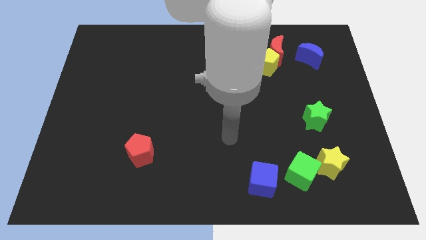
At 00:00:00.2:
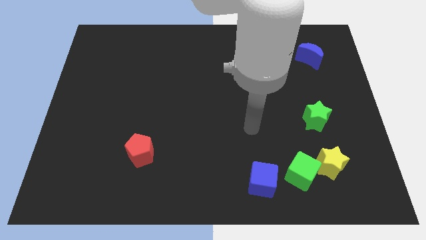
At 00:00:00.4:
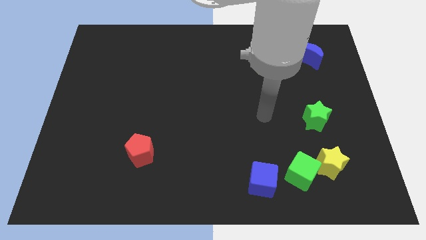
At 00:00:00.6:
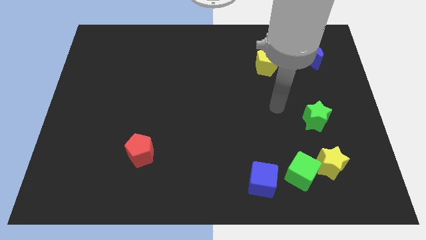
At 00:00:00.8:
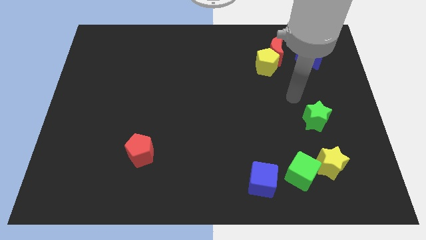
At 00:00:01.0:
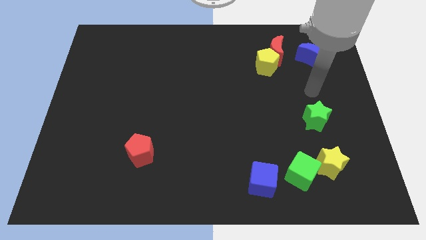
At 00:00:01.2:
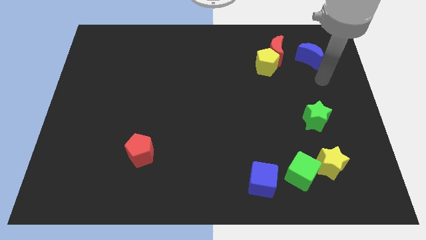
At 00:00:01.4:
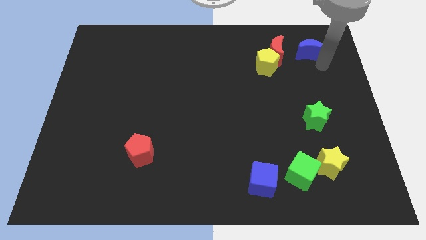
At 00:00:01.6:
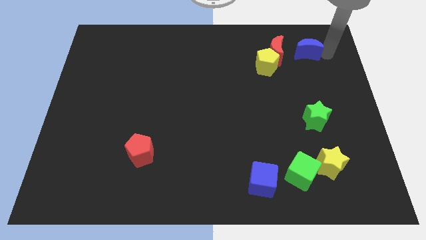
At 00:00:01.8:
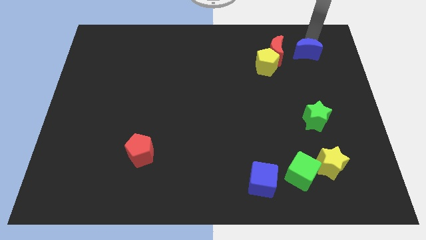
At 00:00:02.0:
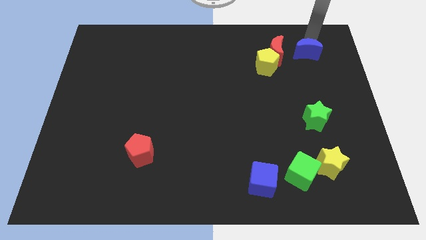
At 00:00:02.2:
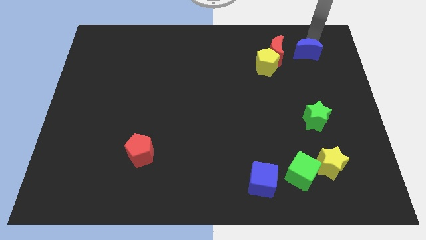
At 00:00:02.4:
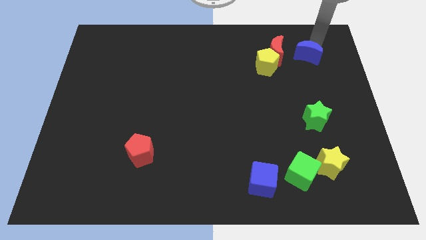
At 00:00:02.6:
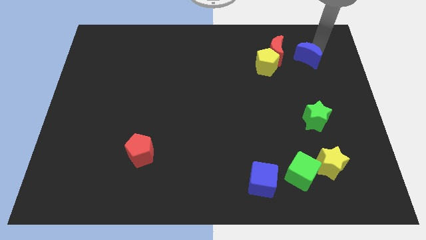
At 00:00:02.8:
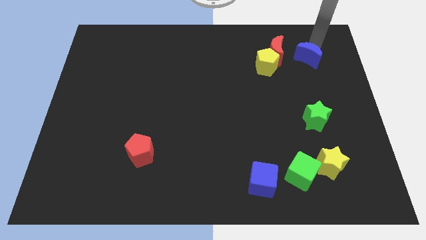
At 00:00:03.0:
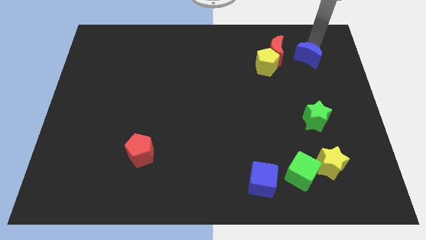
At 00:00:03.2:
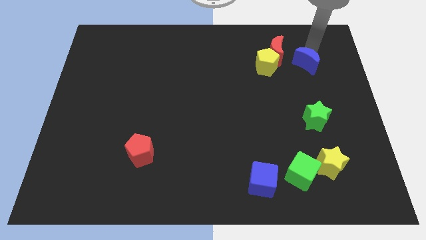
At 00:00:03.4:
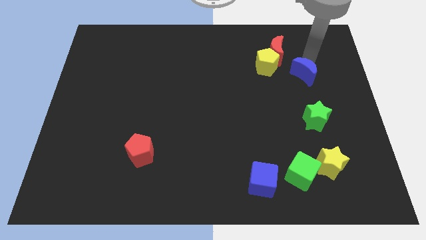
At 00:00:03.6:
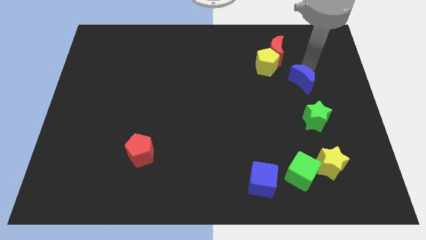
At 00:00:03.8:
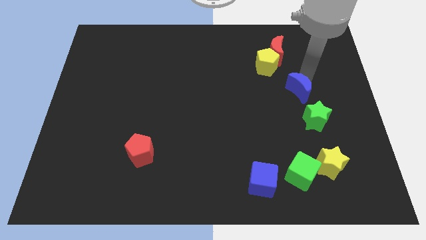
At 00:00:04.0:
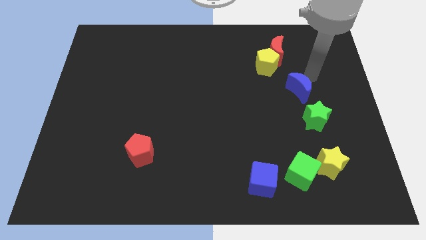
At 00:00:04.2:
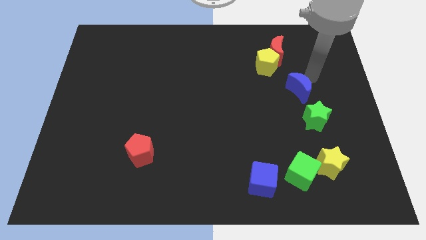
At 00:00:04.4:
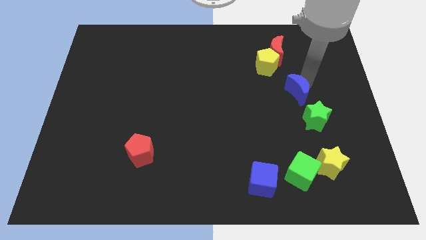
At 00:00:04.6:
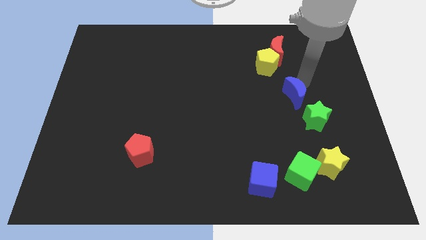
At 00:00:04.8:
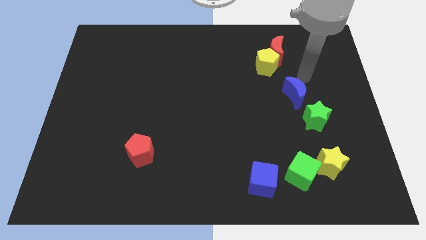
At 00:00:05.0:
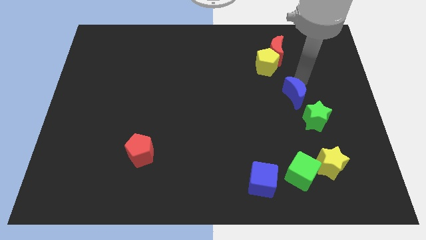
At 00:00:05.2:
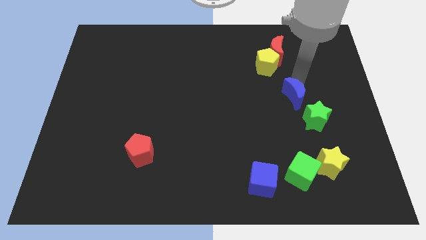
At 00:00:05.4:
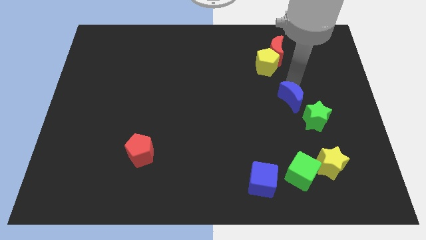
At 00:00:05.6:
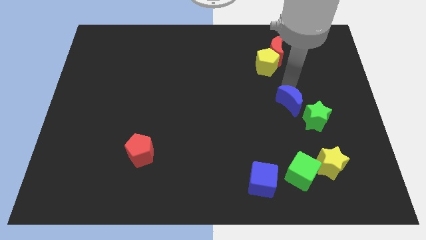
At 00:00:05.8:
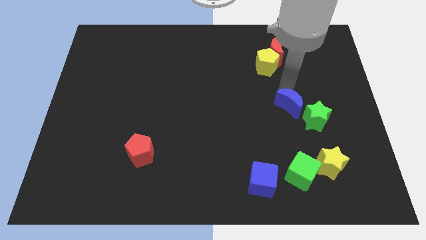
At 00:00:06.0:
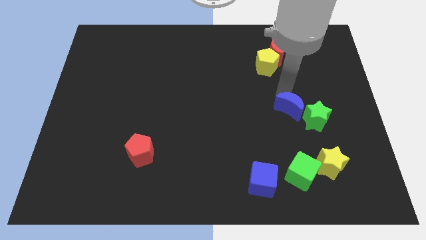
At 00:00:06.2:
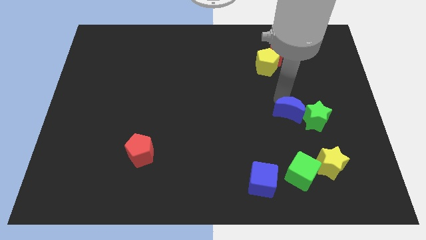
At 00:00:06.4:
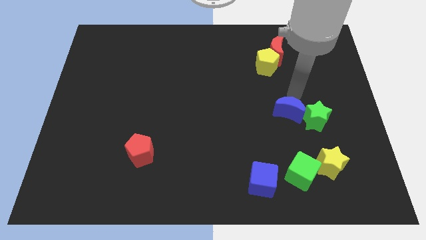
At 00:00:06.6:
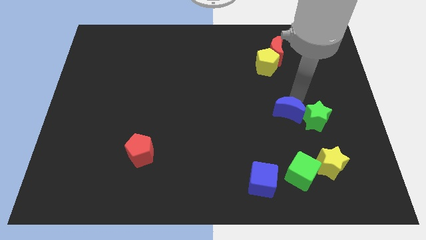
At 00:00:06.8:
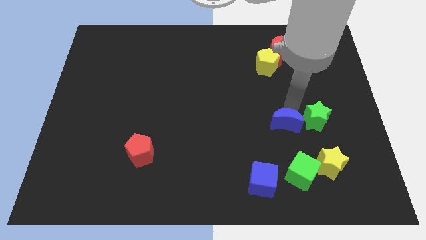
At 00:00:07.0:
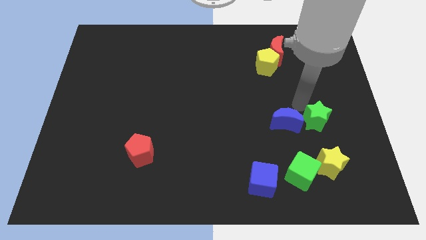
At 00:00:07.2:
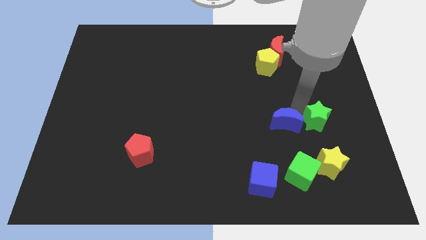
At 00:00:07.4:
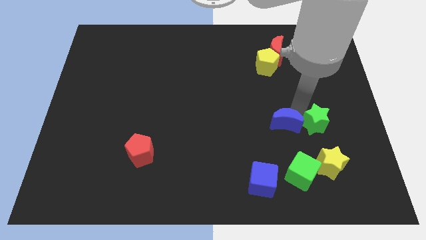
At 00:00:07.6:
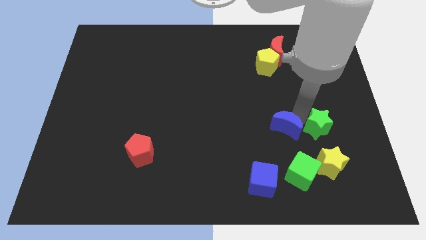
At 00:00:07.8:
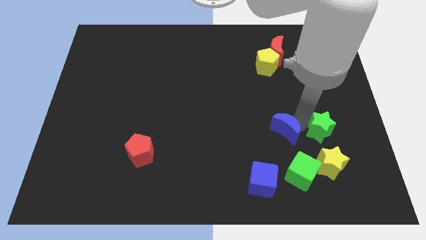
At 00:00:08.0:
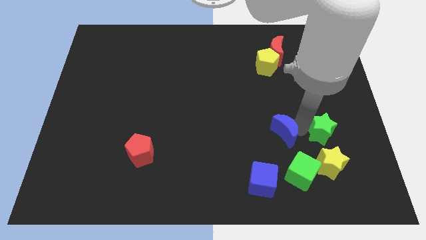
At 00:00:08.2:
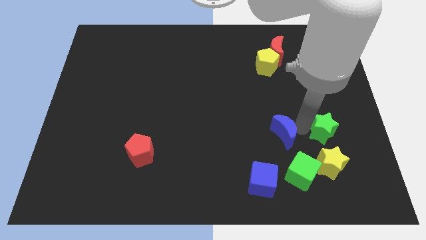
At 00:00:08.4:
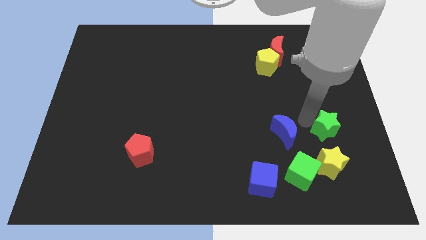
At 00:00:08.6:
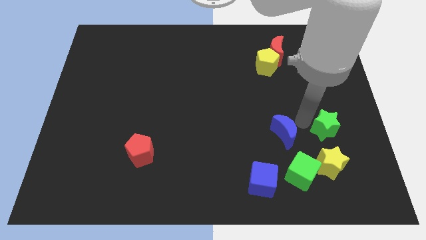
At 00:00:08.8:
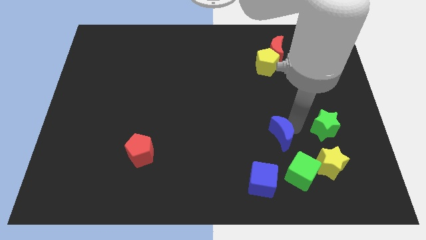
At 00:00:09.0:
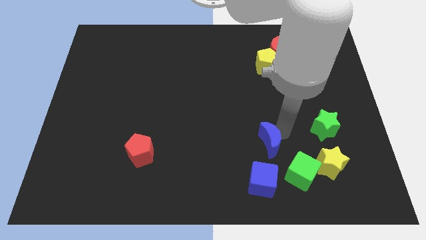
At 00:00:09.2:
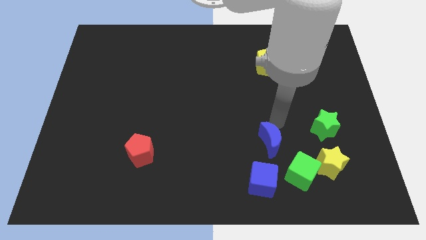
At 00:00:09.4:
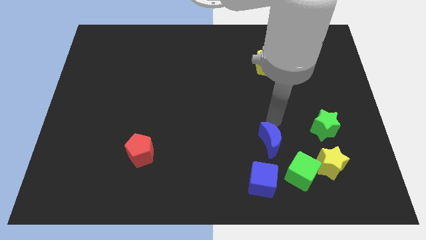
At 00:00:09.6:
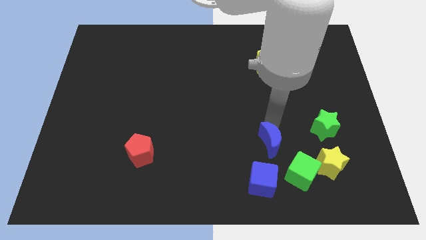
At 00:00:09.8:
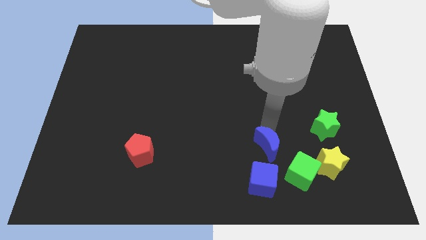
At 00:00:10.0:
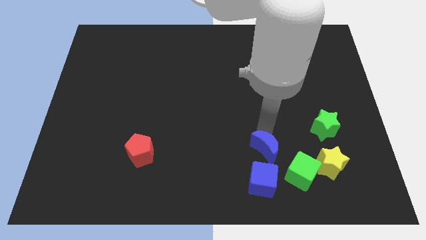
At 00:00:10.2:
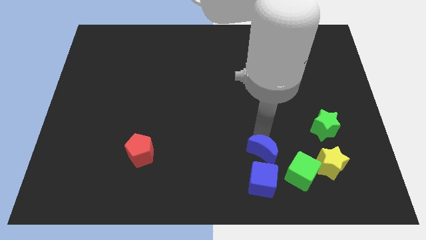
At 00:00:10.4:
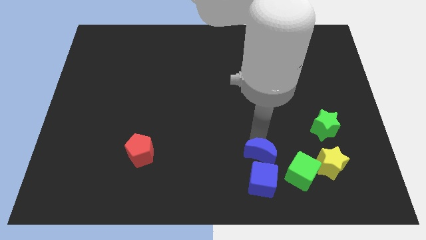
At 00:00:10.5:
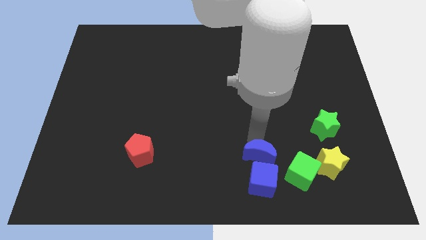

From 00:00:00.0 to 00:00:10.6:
push the blue moon to the blue cube

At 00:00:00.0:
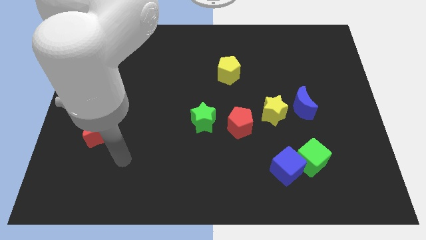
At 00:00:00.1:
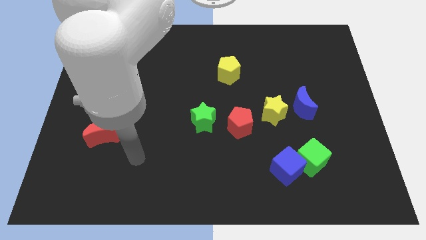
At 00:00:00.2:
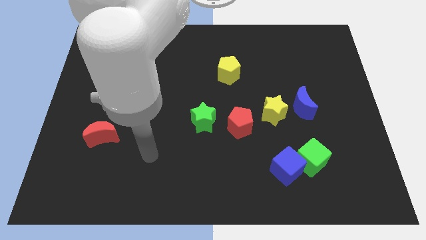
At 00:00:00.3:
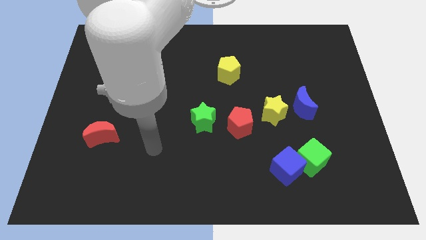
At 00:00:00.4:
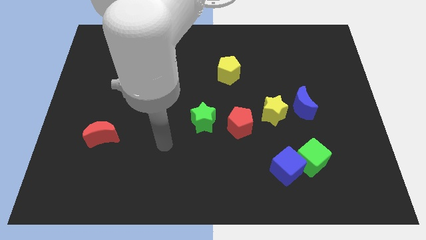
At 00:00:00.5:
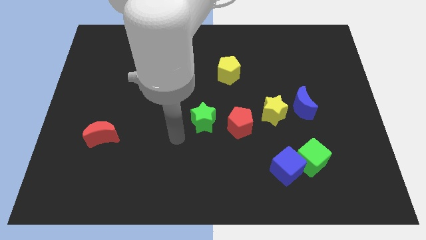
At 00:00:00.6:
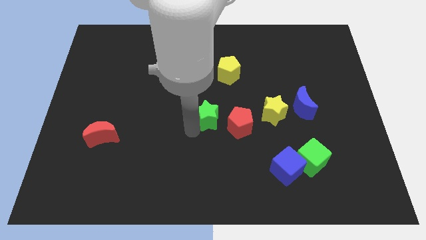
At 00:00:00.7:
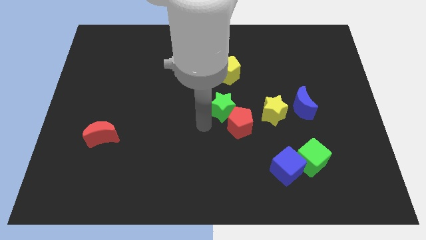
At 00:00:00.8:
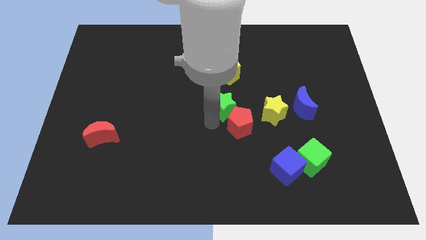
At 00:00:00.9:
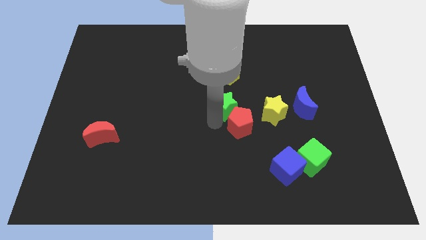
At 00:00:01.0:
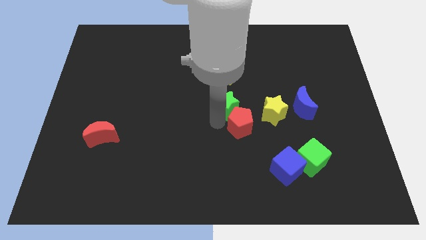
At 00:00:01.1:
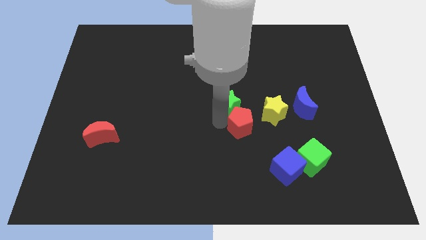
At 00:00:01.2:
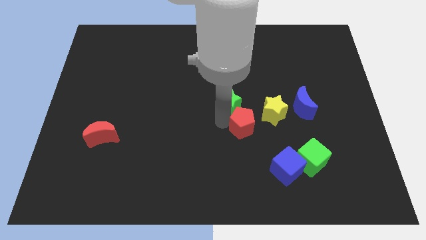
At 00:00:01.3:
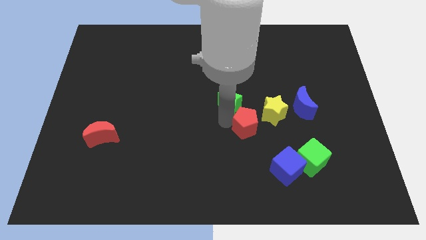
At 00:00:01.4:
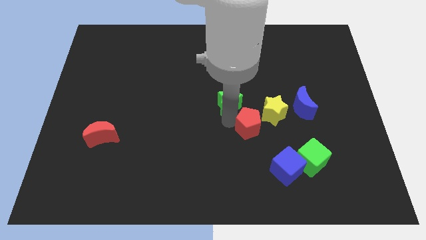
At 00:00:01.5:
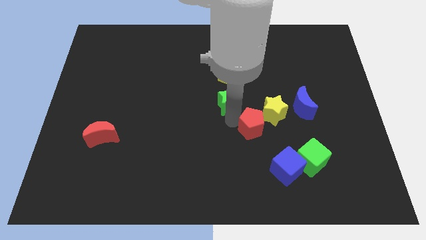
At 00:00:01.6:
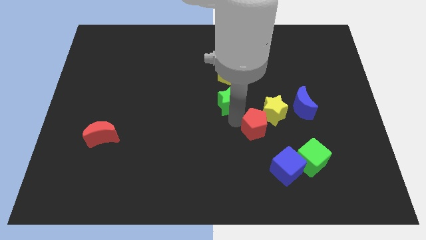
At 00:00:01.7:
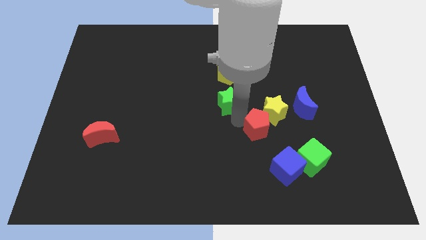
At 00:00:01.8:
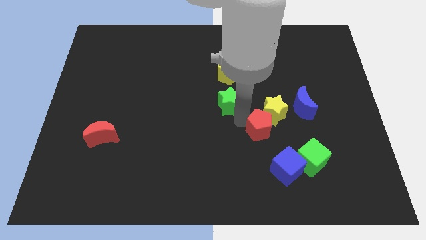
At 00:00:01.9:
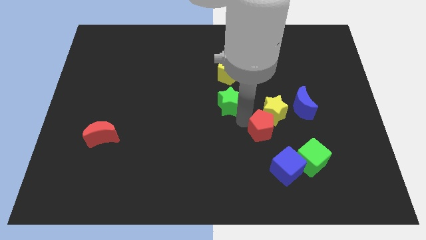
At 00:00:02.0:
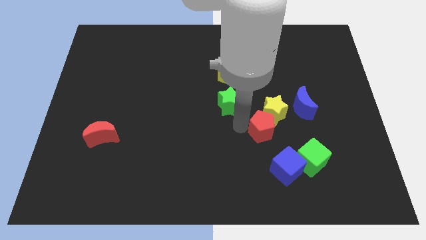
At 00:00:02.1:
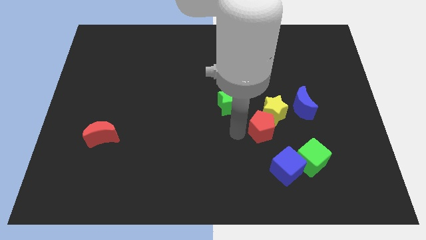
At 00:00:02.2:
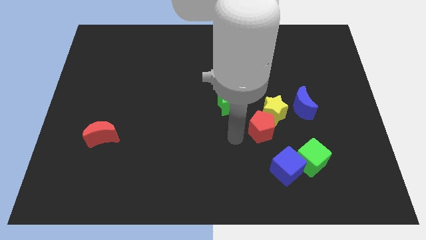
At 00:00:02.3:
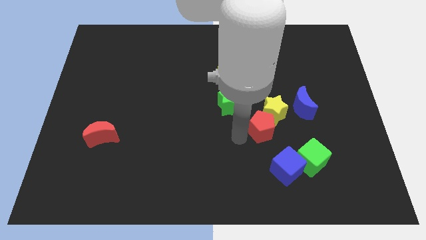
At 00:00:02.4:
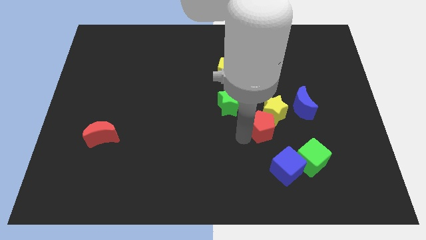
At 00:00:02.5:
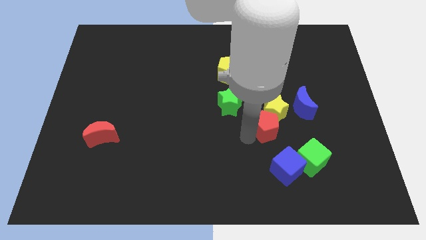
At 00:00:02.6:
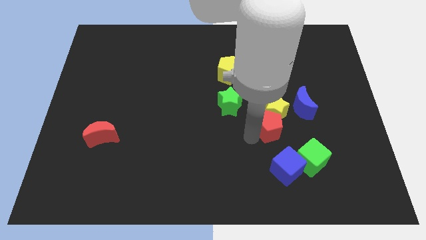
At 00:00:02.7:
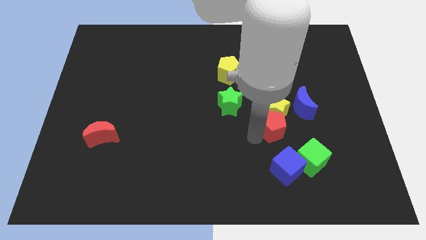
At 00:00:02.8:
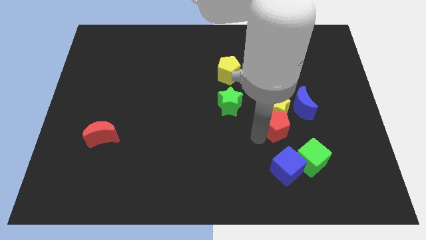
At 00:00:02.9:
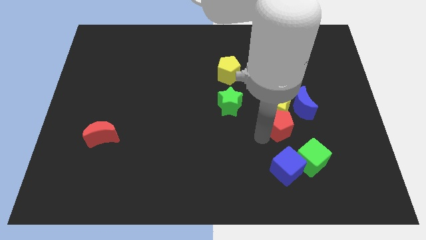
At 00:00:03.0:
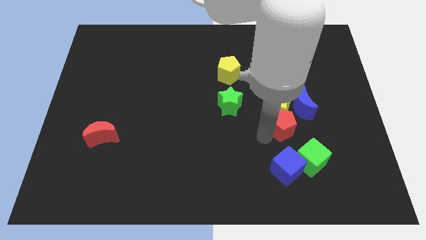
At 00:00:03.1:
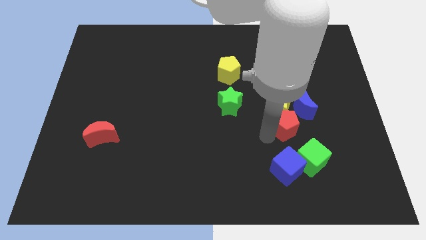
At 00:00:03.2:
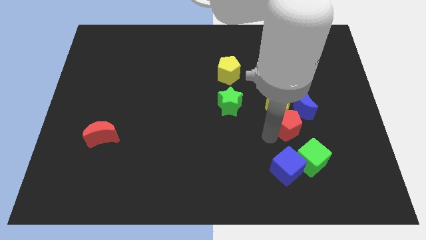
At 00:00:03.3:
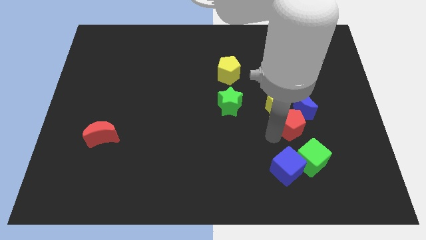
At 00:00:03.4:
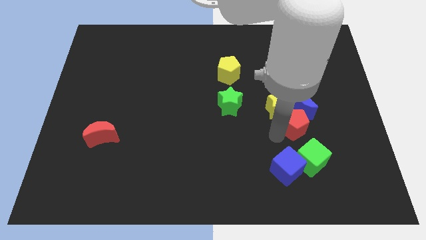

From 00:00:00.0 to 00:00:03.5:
put the red pentagon next to the blue moon
